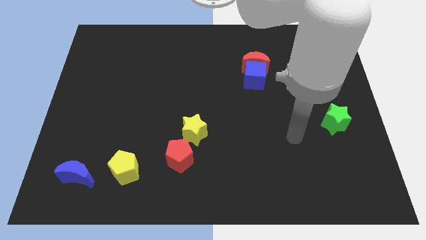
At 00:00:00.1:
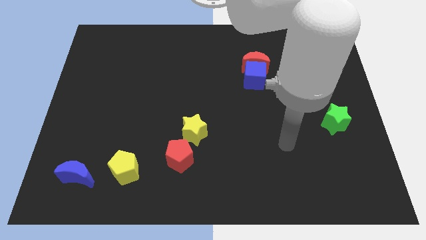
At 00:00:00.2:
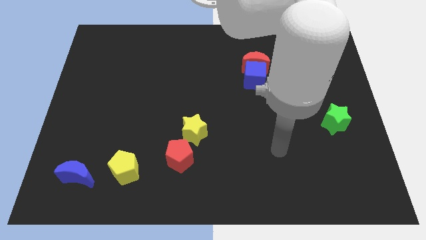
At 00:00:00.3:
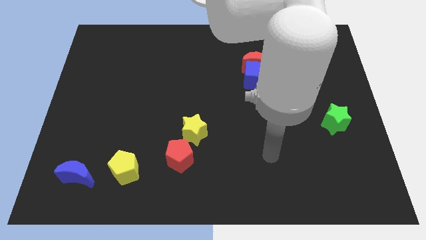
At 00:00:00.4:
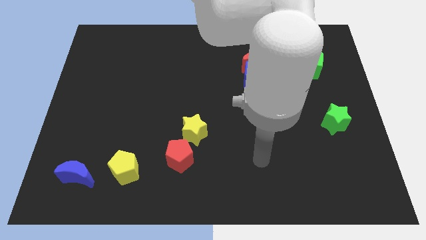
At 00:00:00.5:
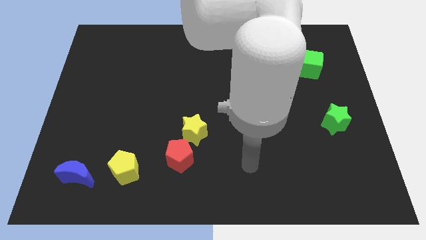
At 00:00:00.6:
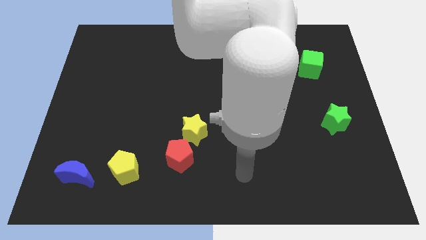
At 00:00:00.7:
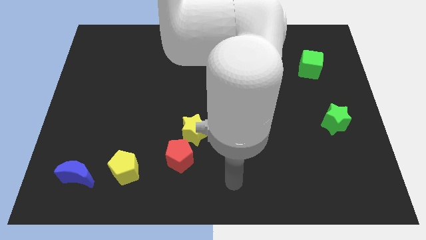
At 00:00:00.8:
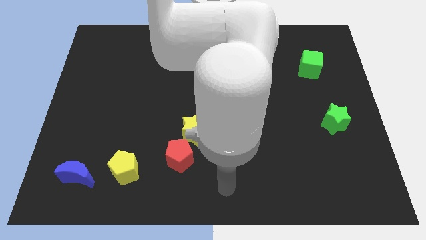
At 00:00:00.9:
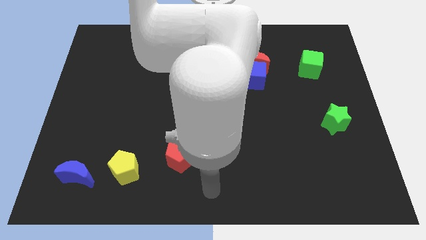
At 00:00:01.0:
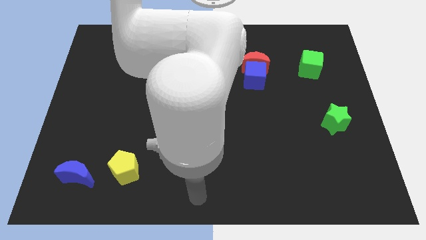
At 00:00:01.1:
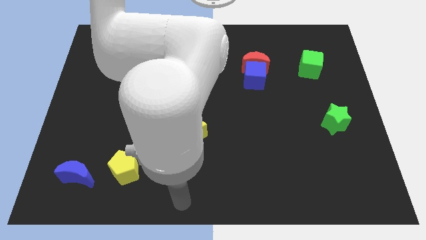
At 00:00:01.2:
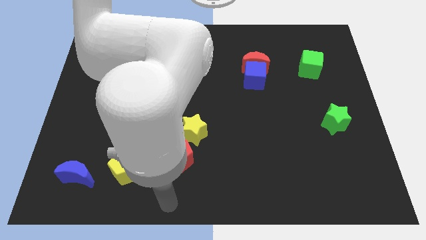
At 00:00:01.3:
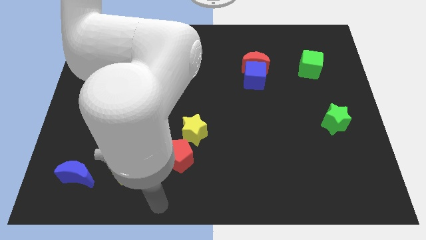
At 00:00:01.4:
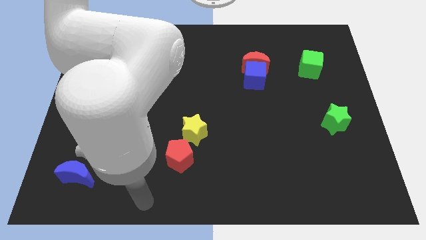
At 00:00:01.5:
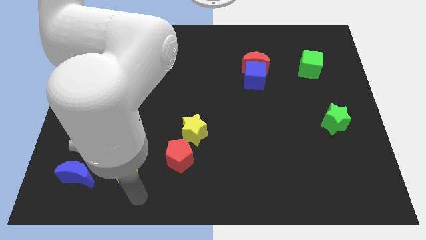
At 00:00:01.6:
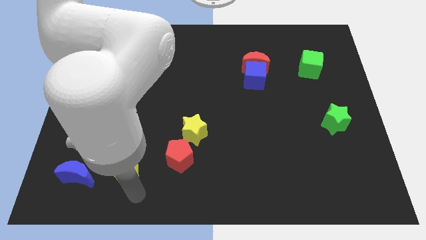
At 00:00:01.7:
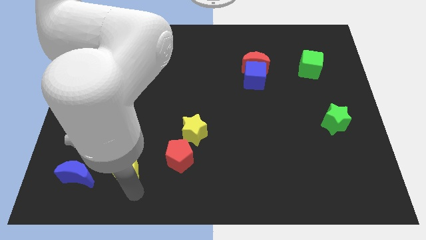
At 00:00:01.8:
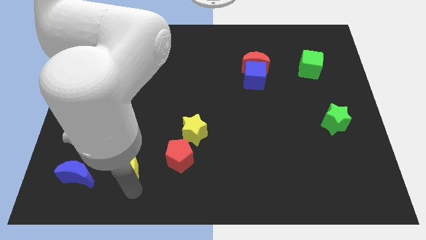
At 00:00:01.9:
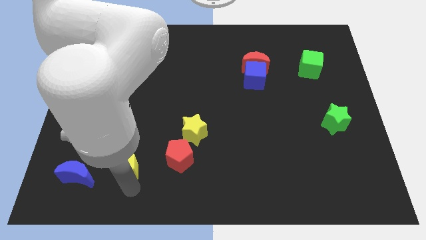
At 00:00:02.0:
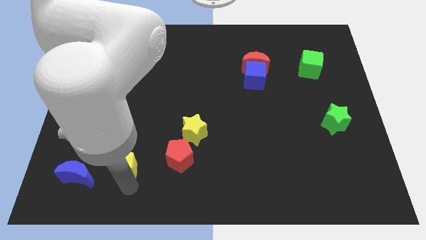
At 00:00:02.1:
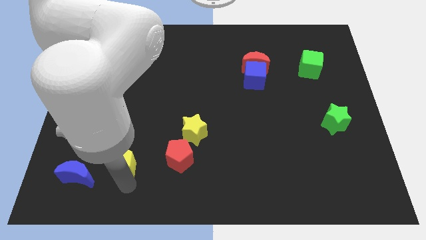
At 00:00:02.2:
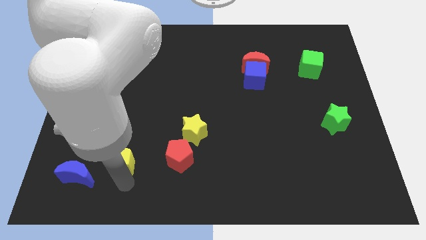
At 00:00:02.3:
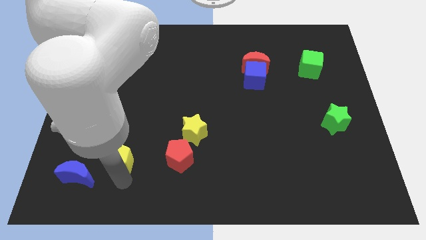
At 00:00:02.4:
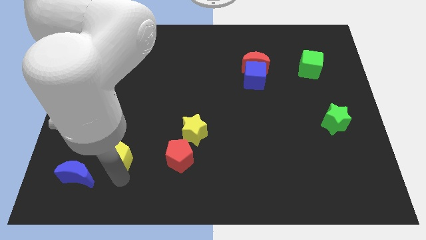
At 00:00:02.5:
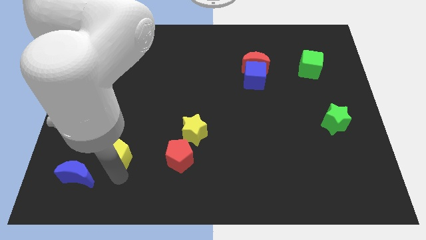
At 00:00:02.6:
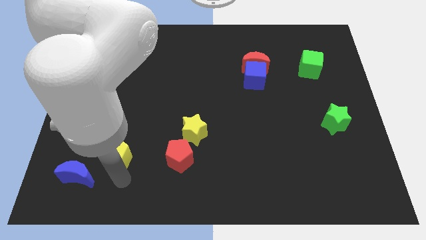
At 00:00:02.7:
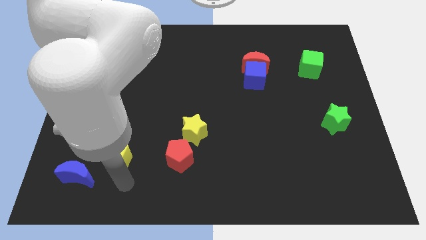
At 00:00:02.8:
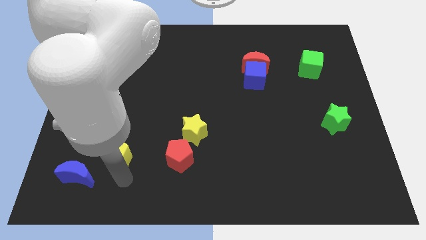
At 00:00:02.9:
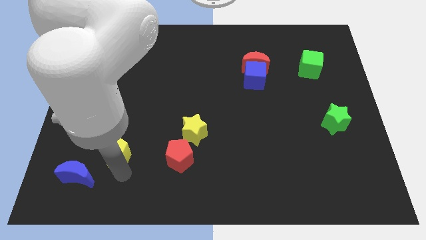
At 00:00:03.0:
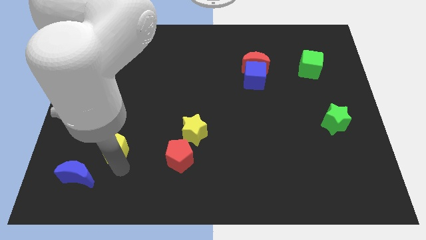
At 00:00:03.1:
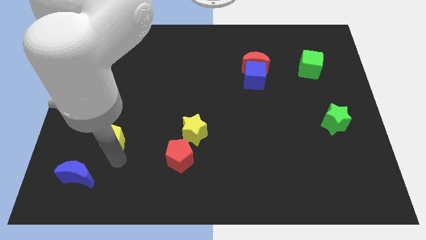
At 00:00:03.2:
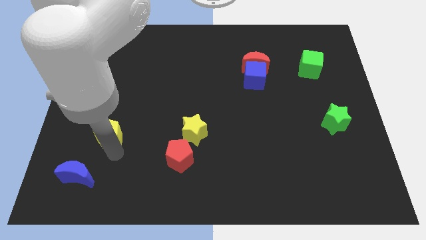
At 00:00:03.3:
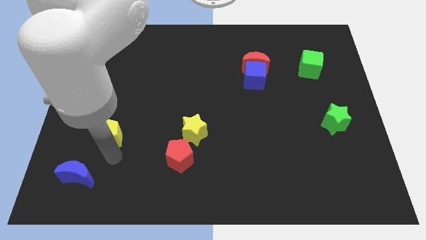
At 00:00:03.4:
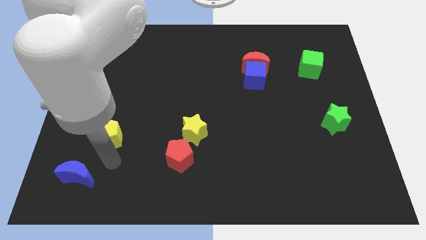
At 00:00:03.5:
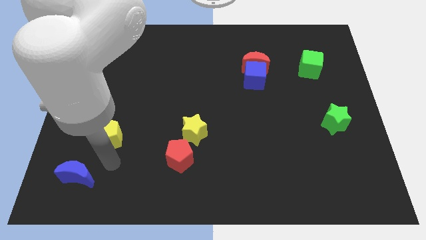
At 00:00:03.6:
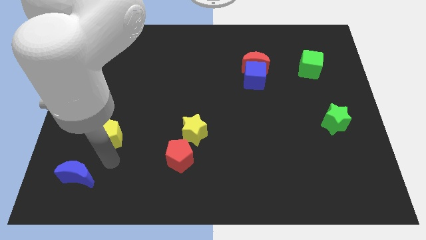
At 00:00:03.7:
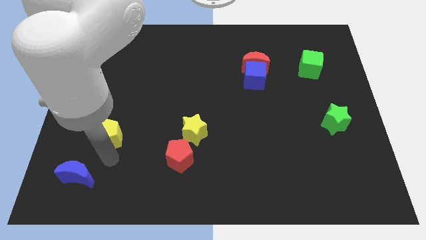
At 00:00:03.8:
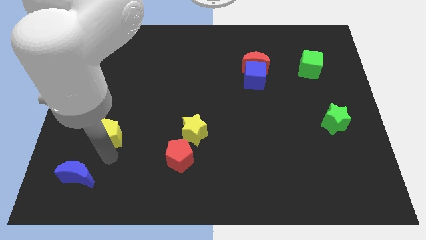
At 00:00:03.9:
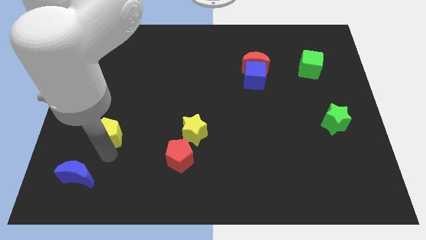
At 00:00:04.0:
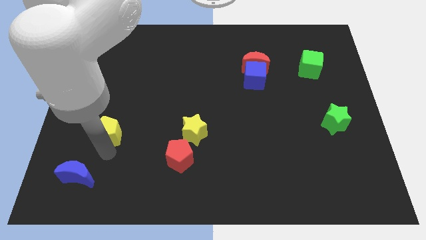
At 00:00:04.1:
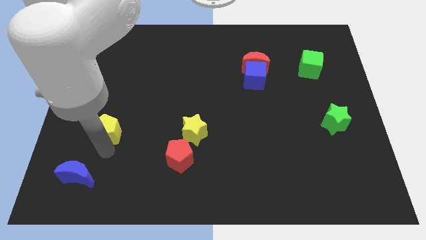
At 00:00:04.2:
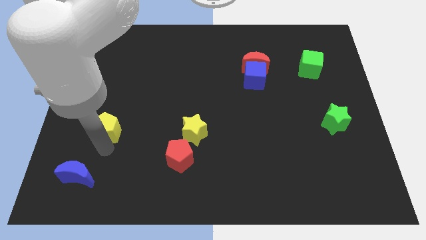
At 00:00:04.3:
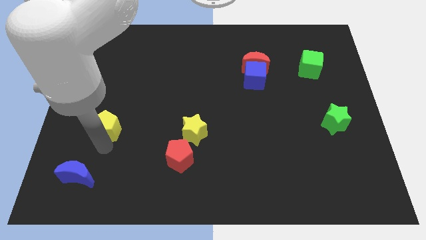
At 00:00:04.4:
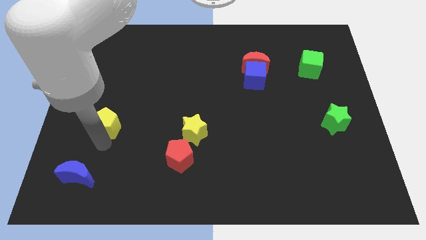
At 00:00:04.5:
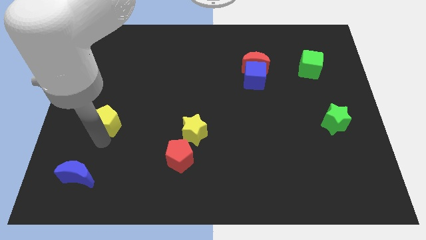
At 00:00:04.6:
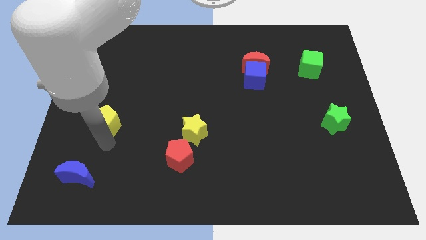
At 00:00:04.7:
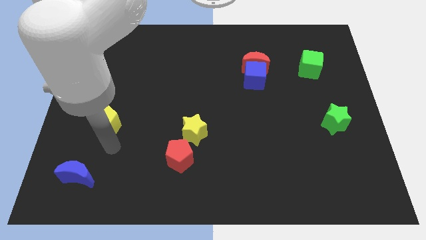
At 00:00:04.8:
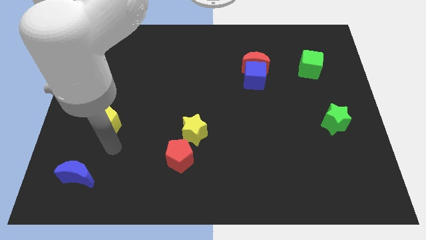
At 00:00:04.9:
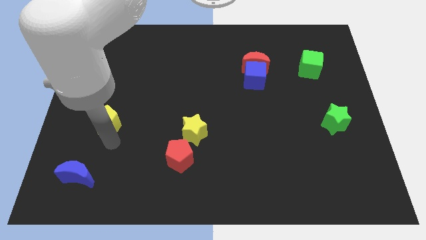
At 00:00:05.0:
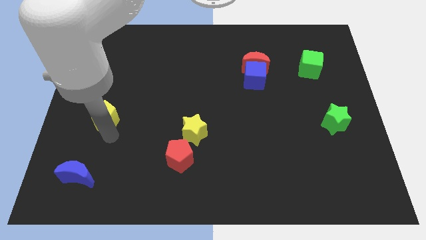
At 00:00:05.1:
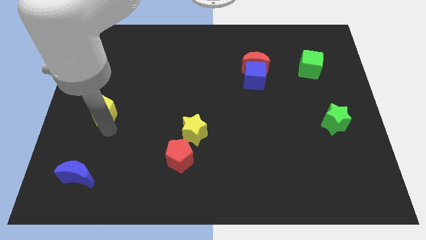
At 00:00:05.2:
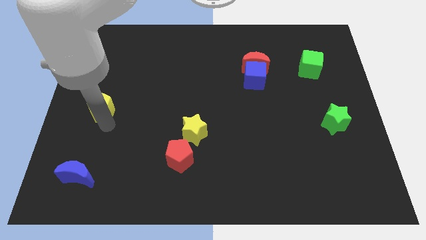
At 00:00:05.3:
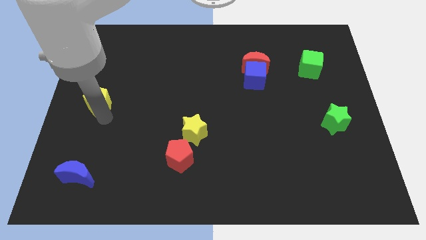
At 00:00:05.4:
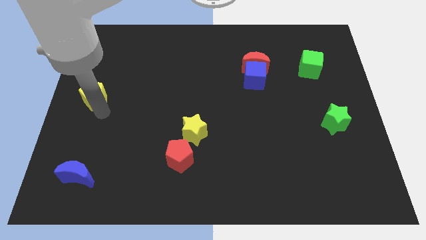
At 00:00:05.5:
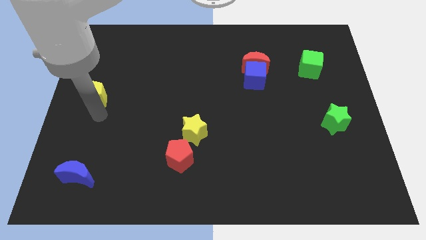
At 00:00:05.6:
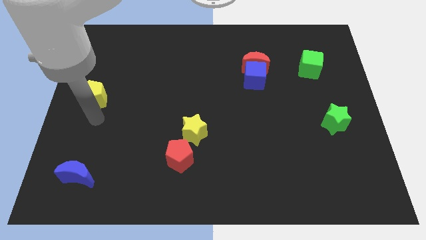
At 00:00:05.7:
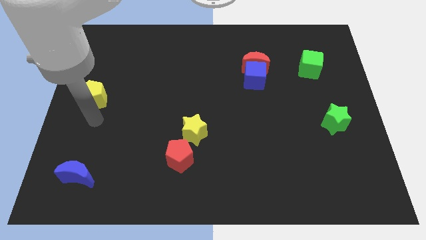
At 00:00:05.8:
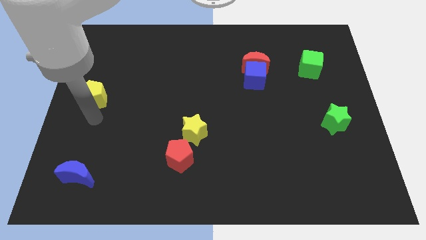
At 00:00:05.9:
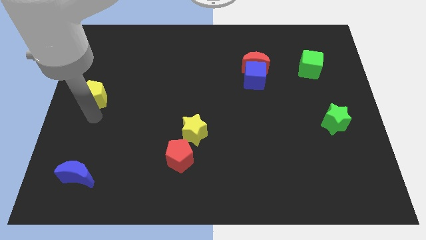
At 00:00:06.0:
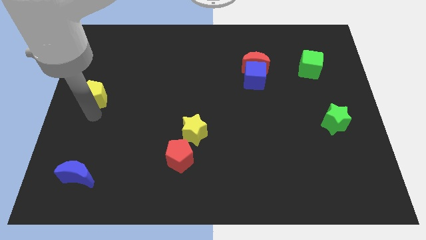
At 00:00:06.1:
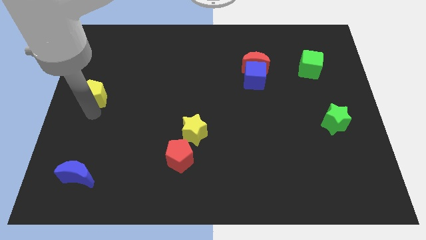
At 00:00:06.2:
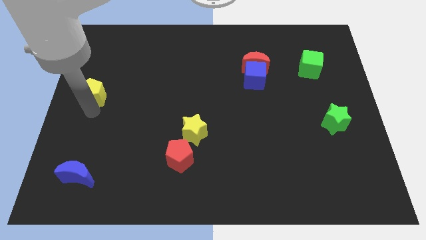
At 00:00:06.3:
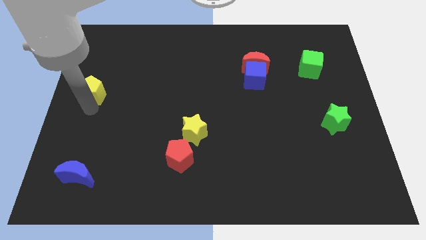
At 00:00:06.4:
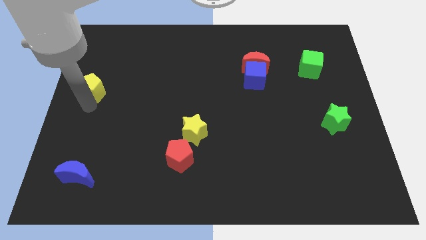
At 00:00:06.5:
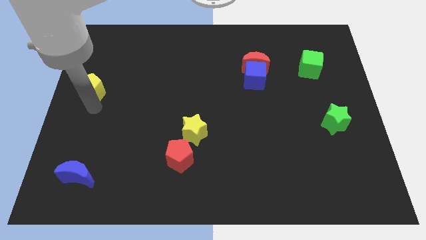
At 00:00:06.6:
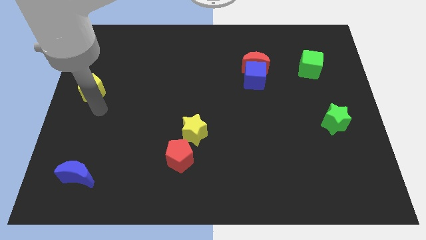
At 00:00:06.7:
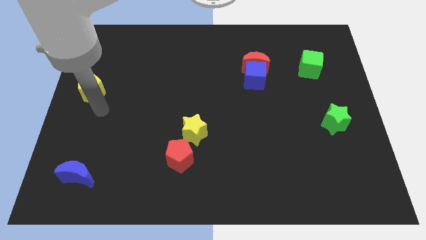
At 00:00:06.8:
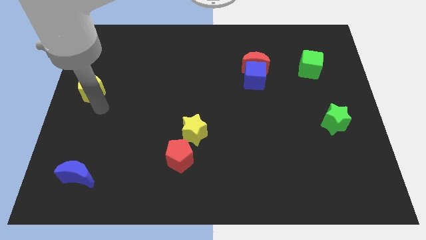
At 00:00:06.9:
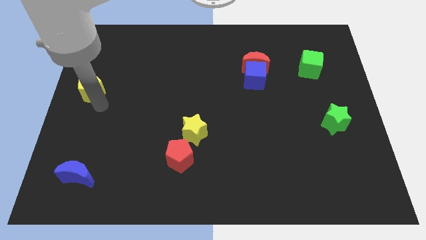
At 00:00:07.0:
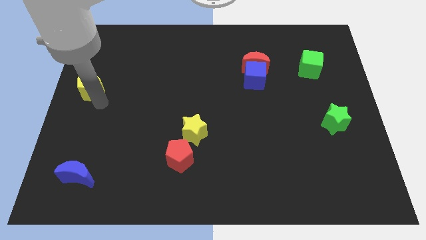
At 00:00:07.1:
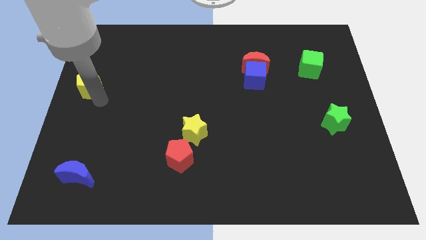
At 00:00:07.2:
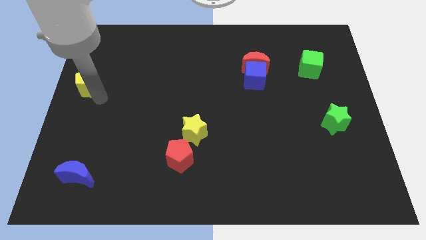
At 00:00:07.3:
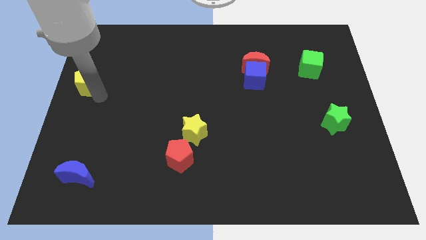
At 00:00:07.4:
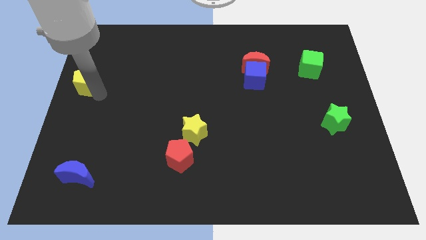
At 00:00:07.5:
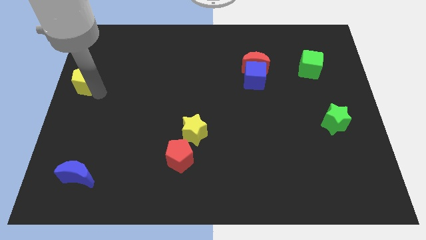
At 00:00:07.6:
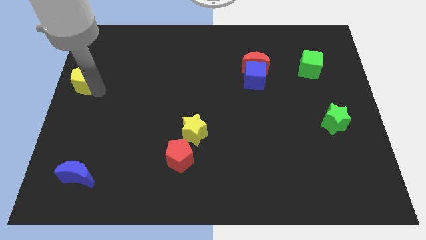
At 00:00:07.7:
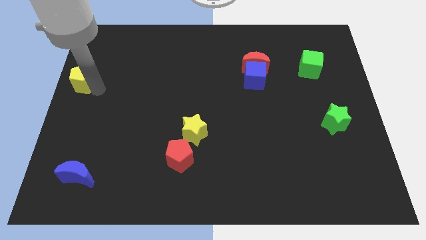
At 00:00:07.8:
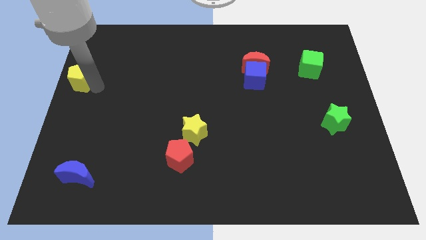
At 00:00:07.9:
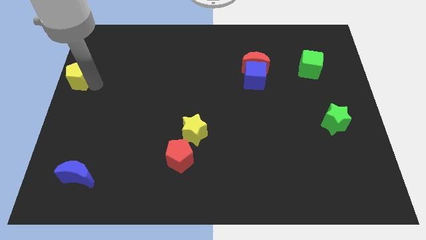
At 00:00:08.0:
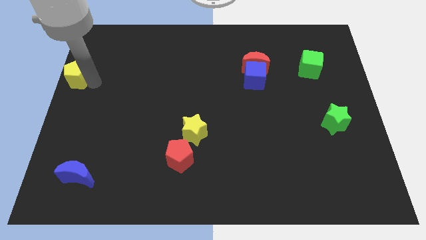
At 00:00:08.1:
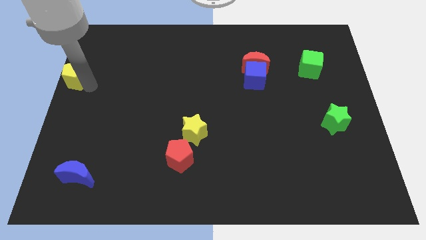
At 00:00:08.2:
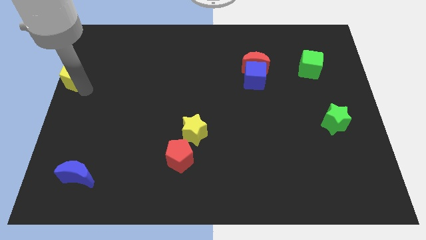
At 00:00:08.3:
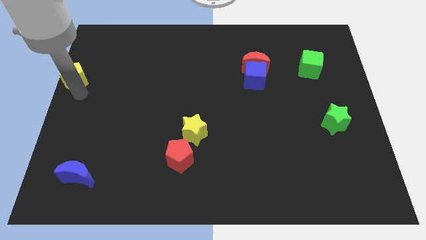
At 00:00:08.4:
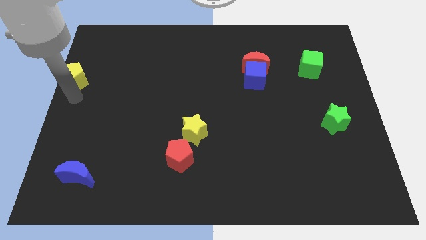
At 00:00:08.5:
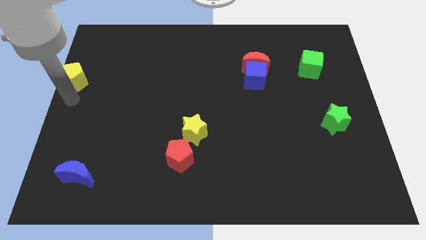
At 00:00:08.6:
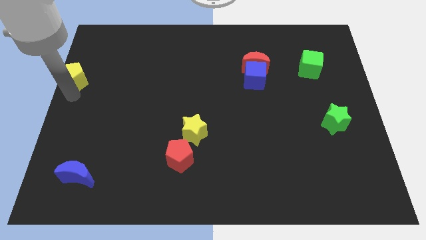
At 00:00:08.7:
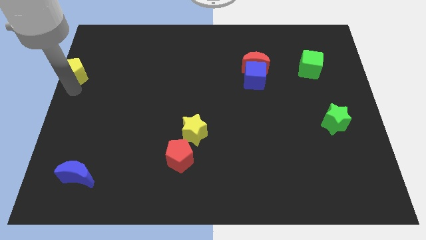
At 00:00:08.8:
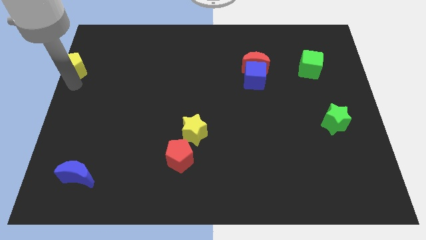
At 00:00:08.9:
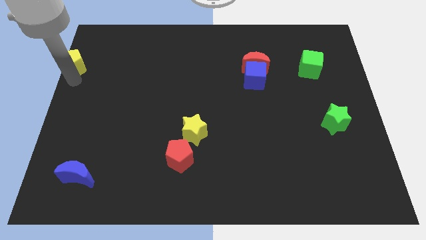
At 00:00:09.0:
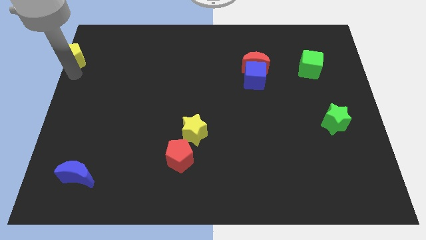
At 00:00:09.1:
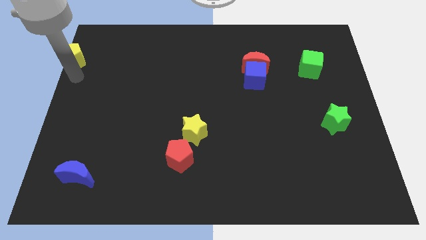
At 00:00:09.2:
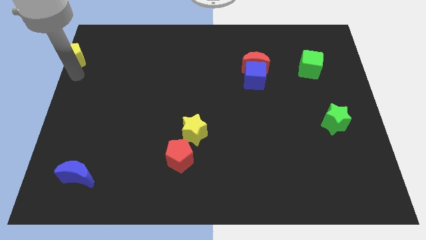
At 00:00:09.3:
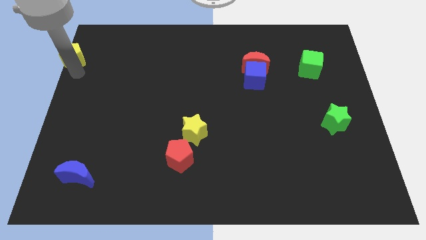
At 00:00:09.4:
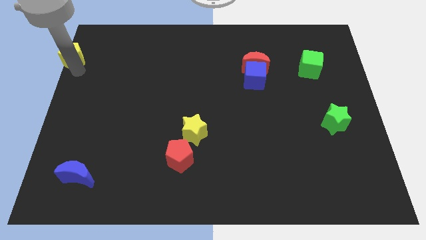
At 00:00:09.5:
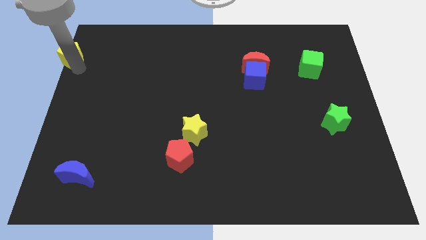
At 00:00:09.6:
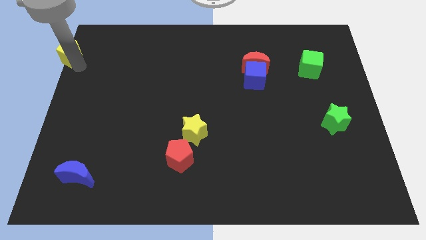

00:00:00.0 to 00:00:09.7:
push the yellow pentagon to the top left corner
